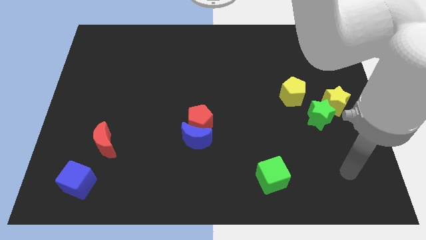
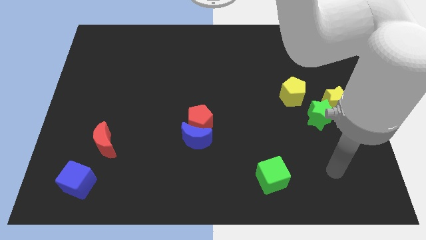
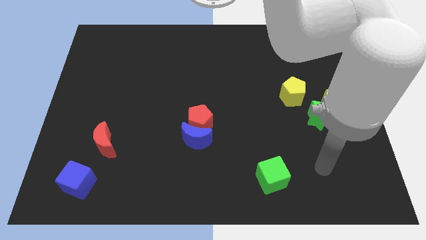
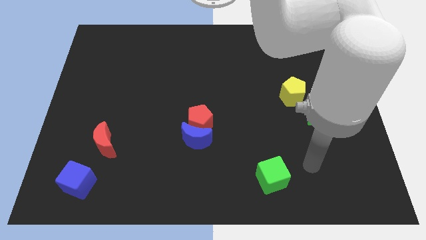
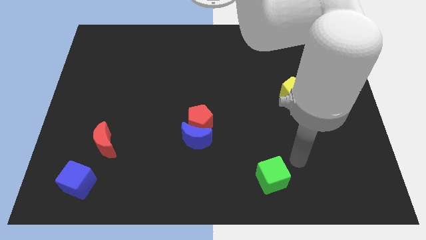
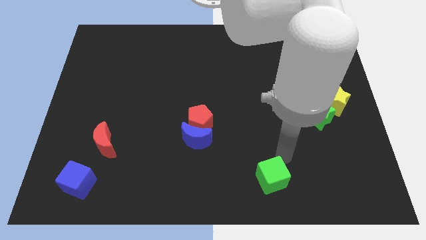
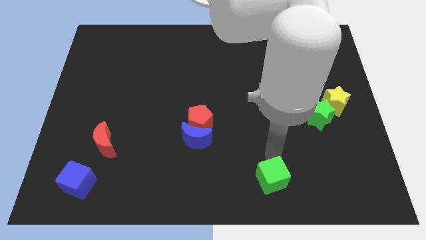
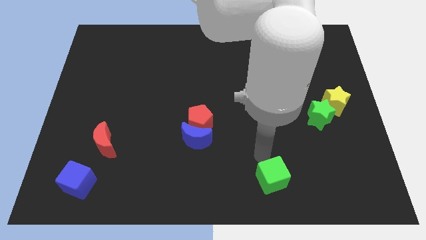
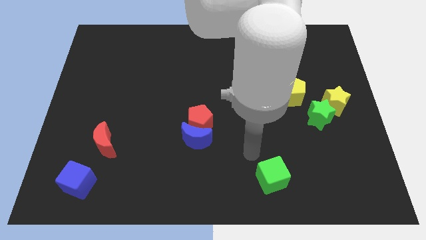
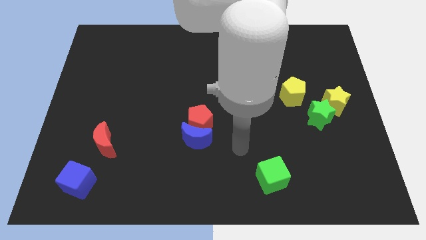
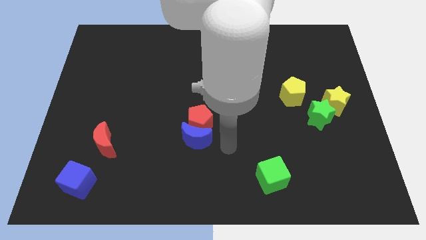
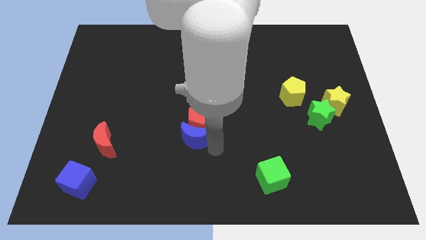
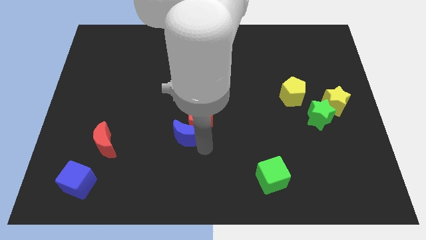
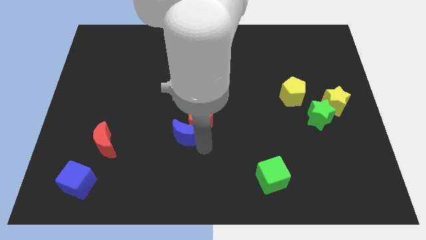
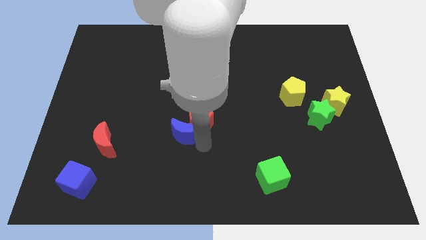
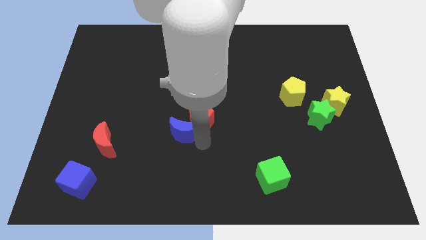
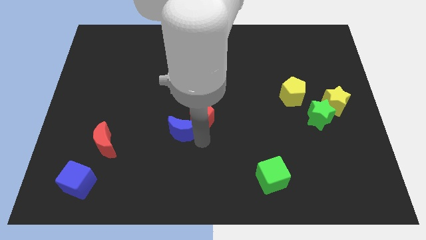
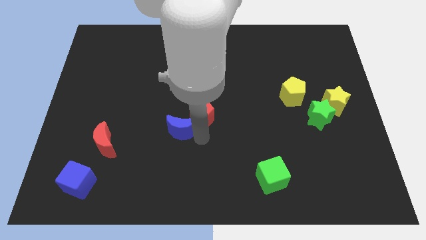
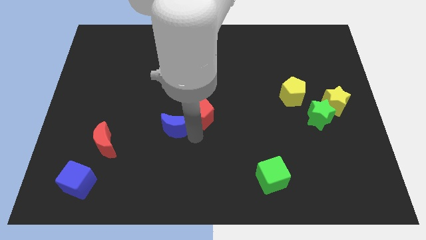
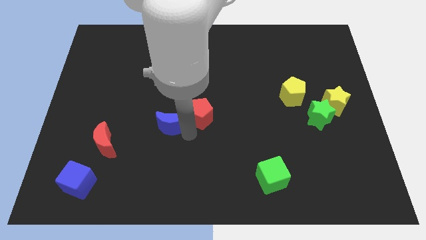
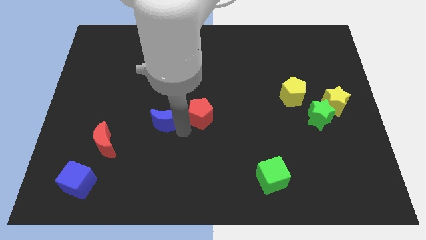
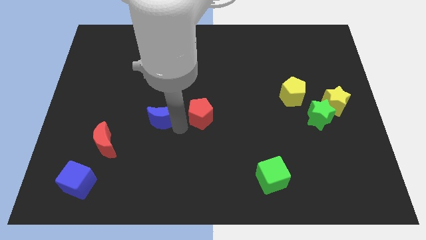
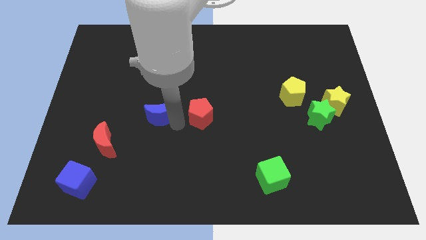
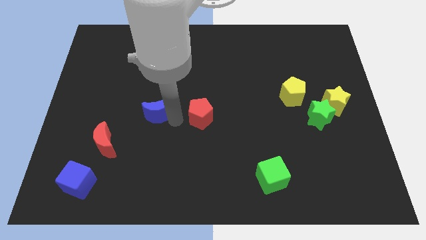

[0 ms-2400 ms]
pull the red pentagon apart from the blue moon

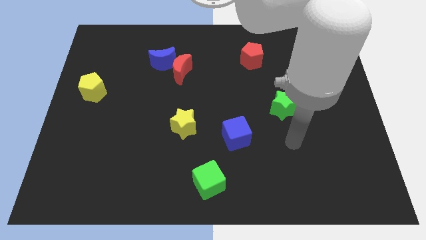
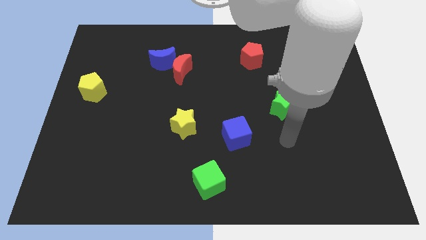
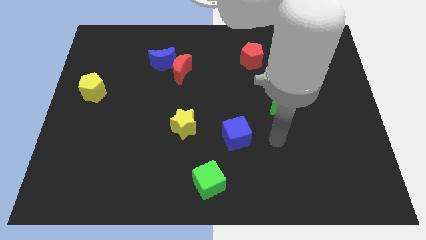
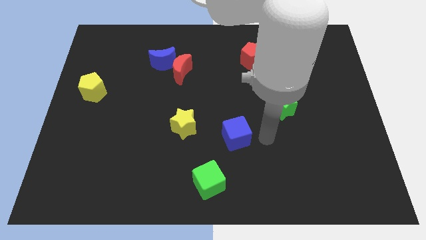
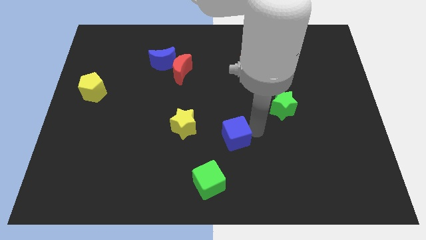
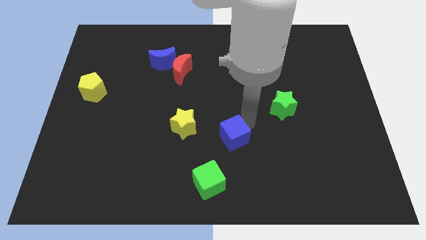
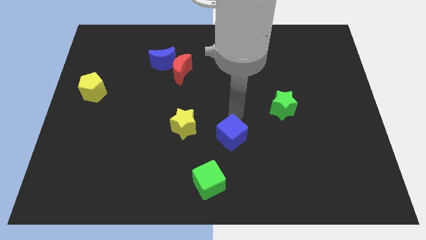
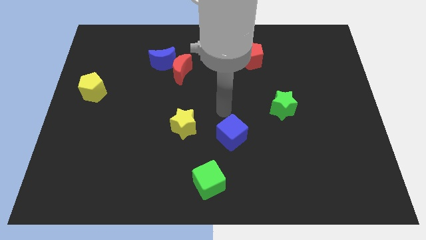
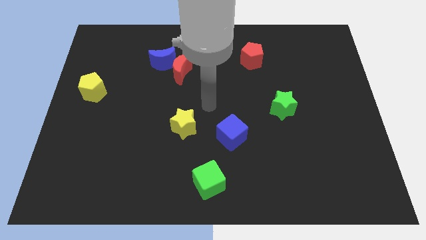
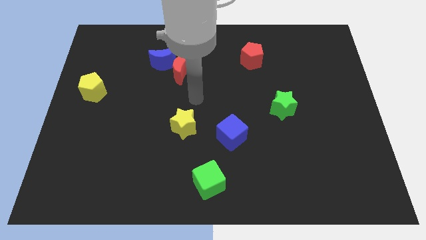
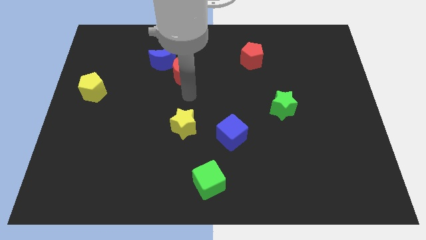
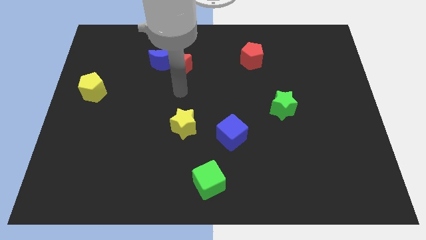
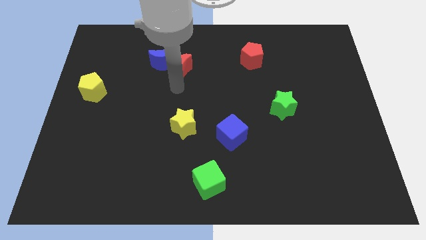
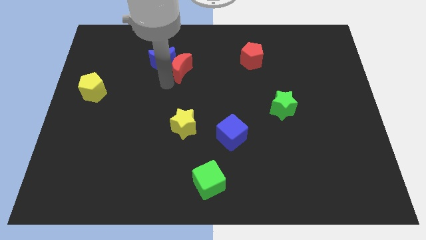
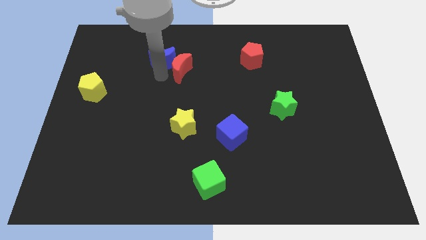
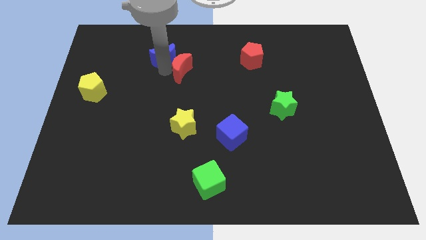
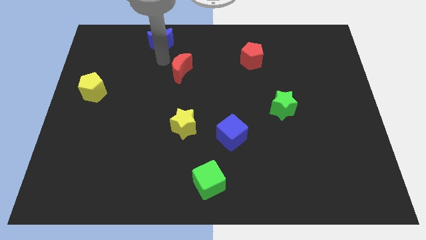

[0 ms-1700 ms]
separate the red moon from the blue moon

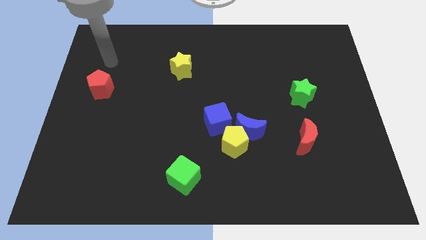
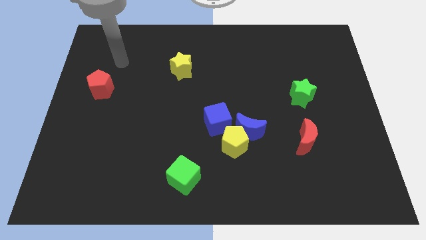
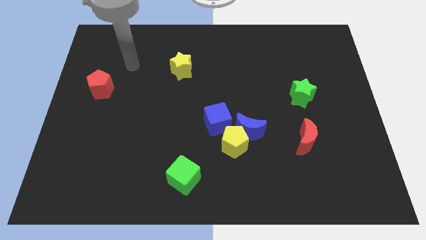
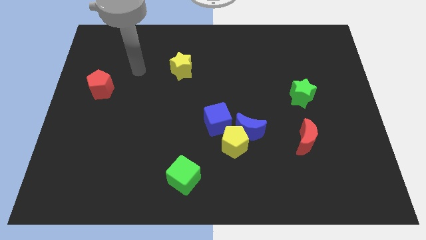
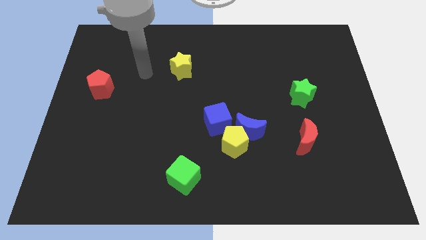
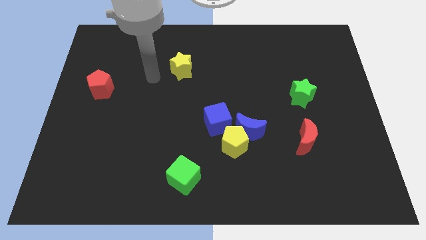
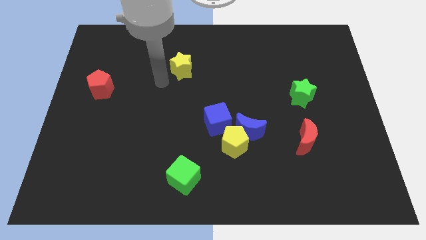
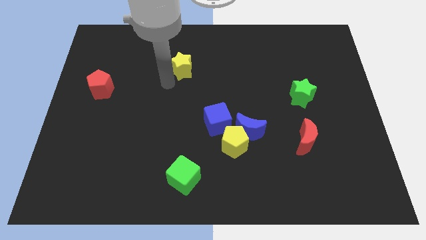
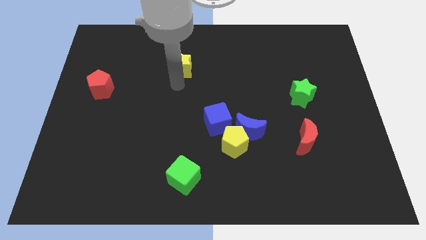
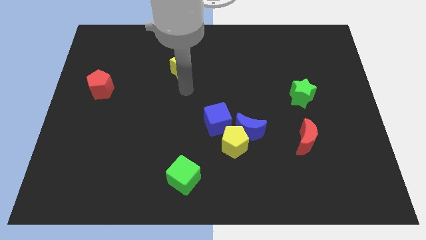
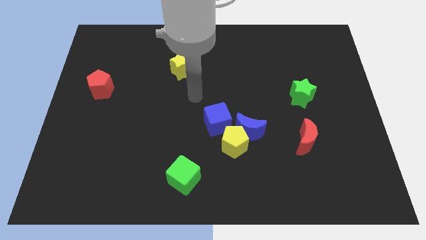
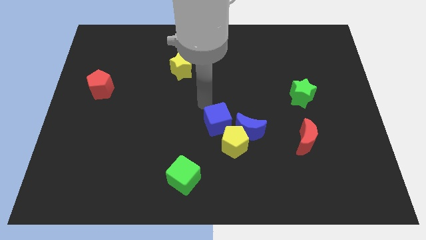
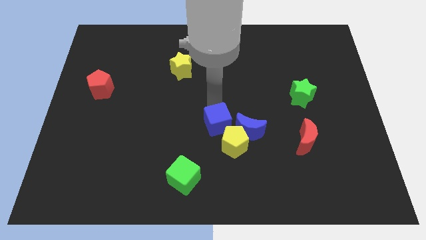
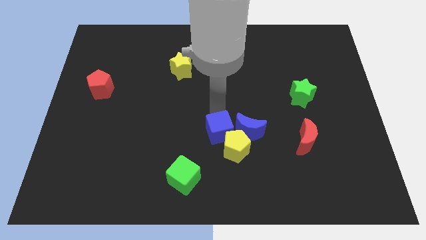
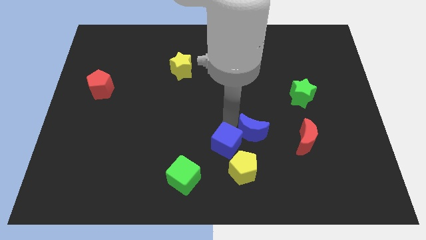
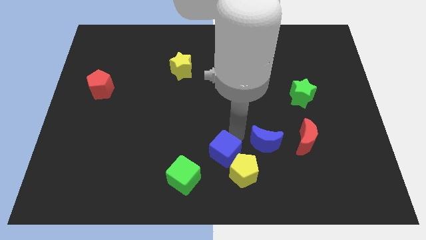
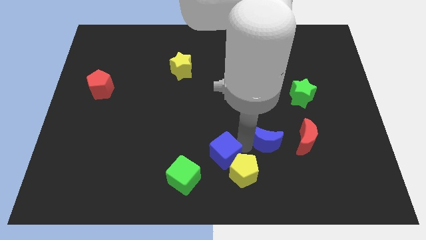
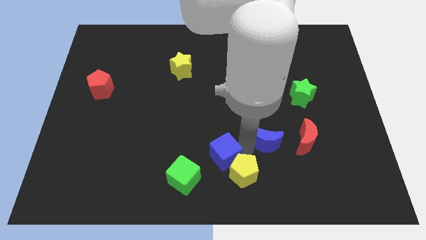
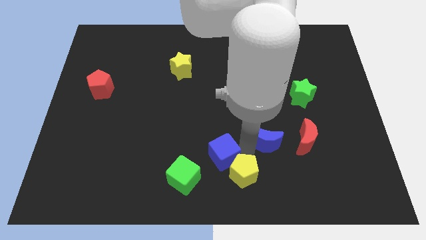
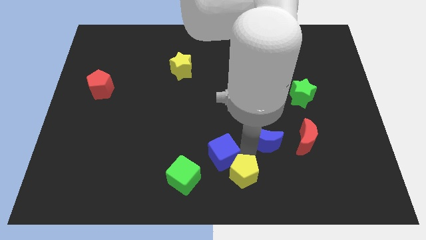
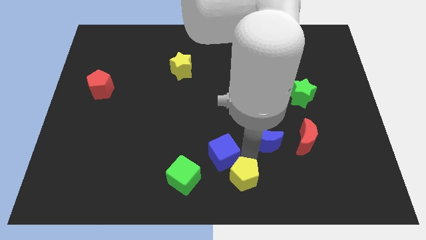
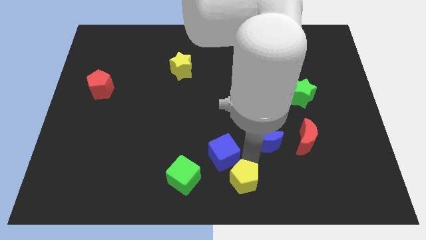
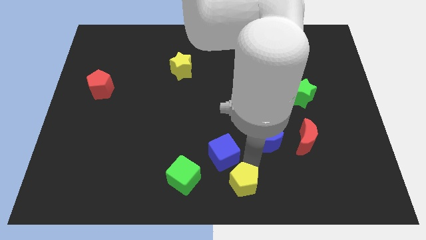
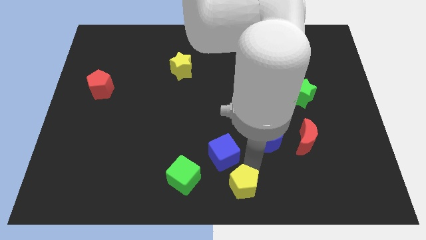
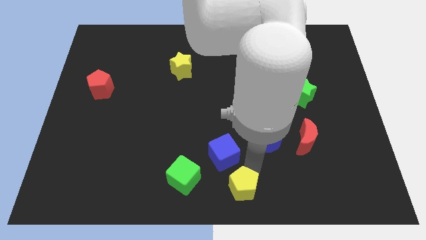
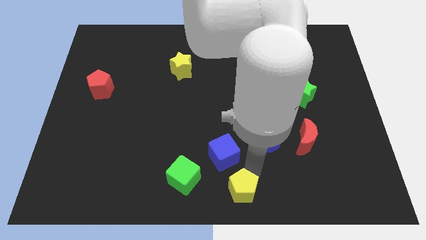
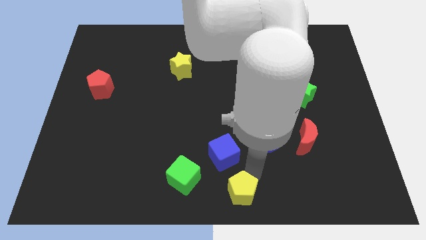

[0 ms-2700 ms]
pull the yellow pentagon apart from the blue moon and blue cube

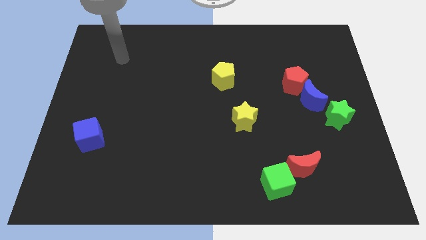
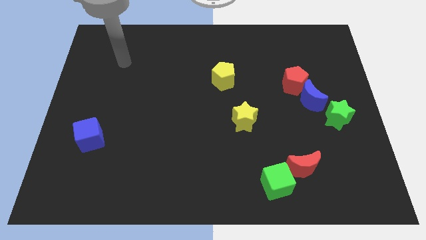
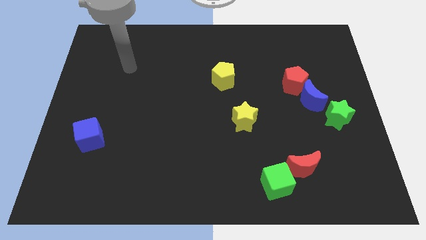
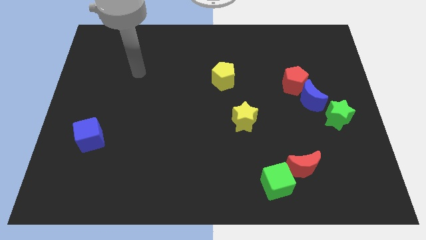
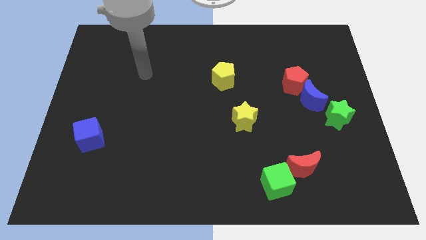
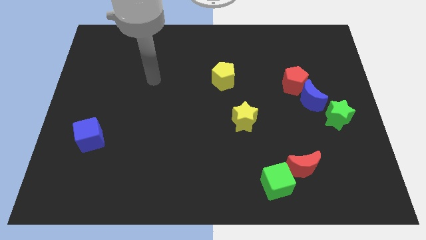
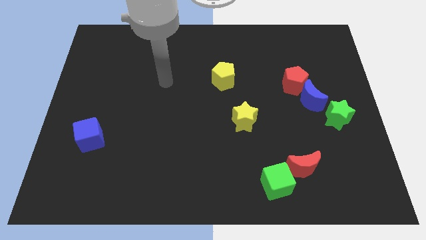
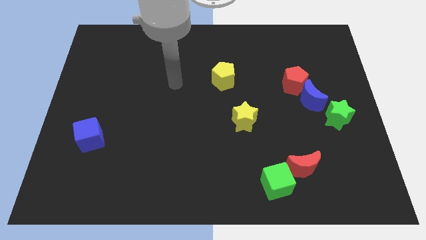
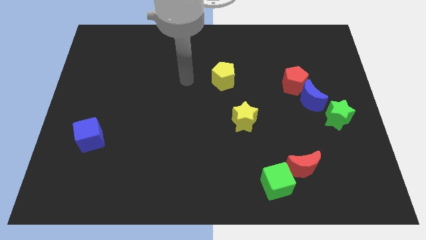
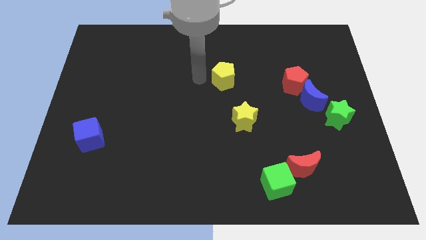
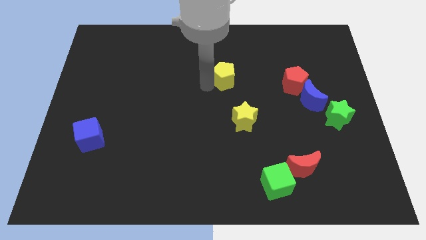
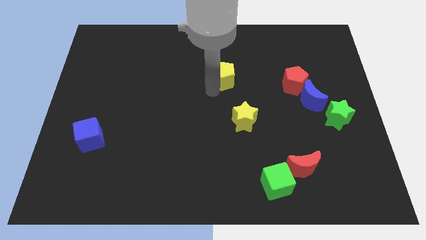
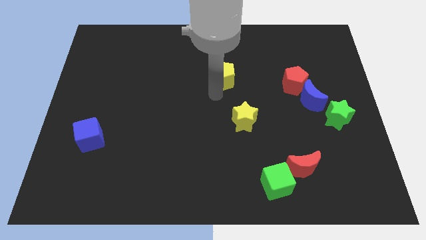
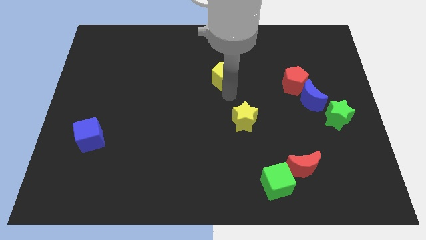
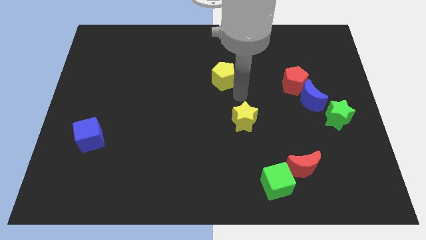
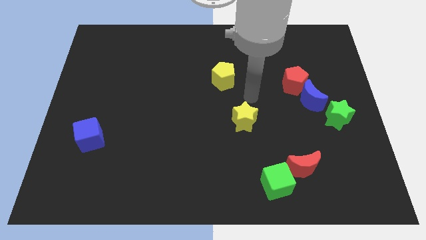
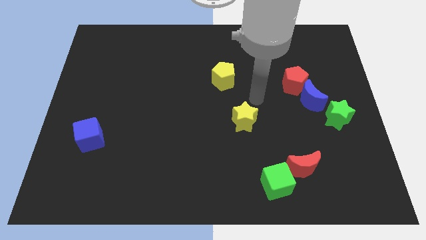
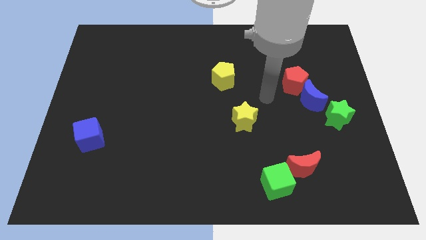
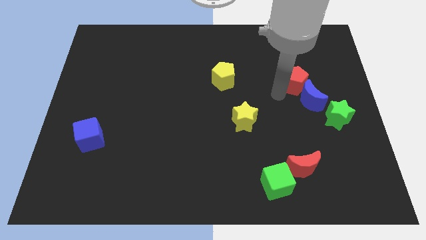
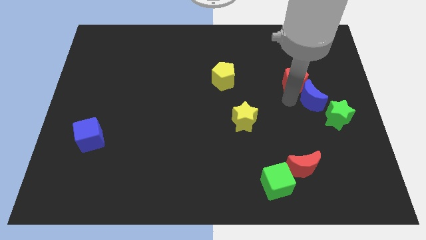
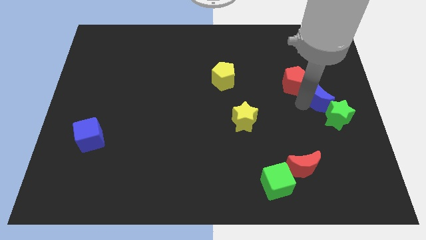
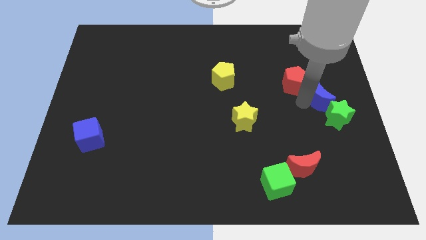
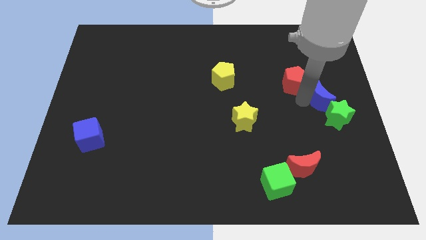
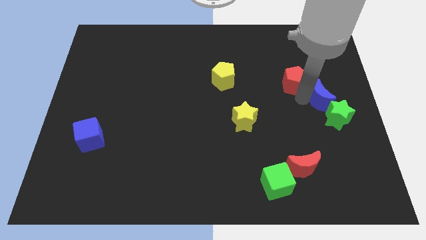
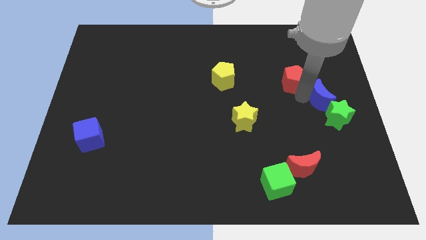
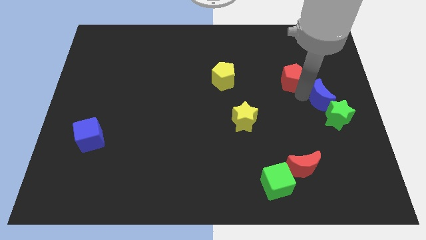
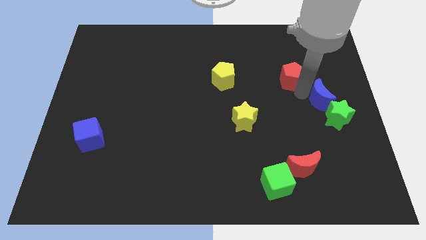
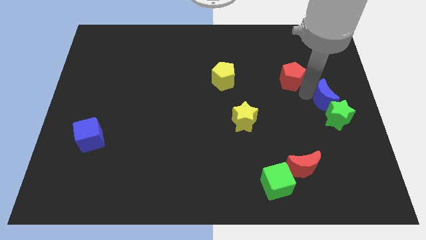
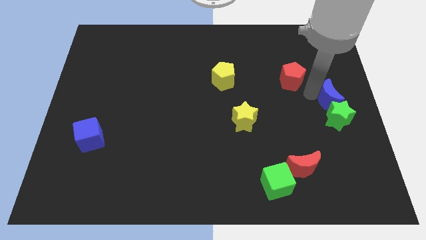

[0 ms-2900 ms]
move the red pentagon away from the blue moon
